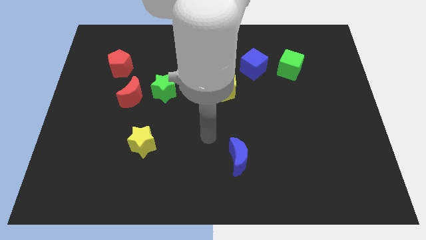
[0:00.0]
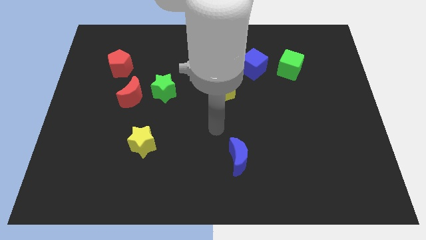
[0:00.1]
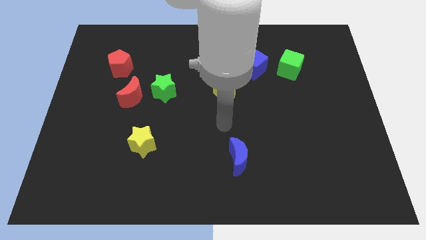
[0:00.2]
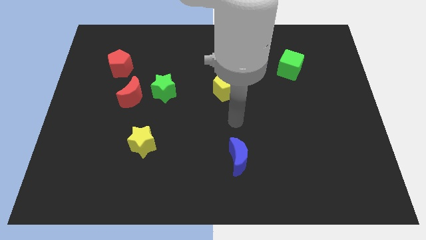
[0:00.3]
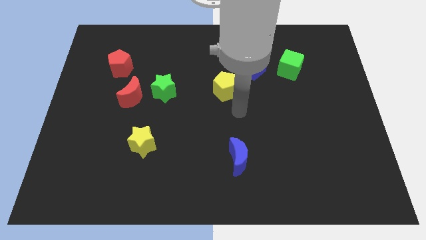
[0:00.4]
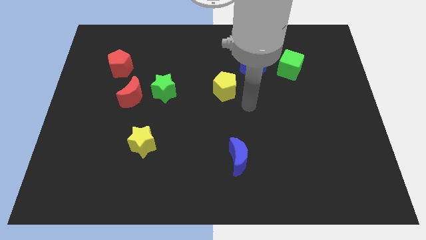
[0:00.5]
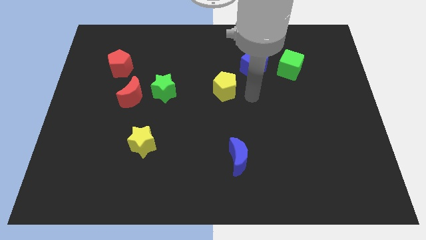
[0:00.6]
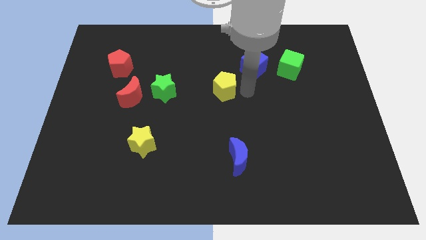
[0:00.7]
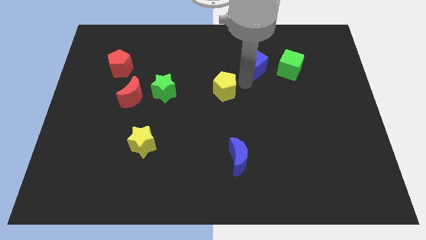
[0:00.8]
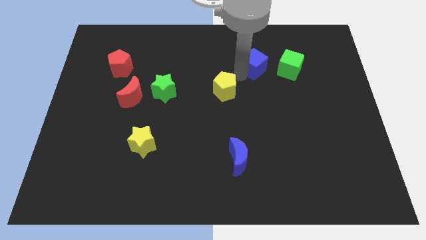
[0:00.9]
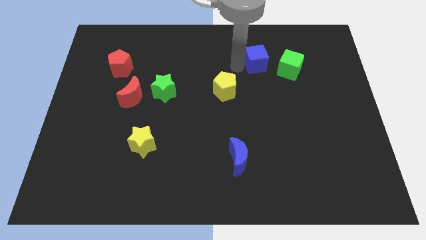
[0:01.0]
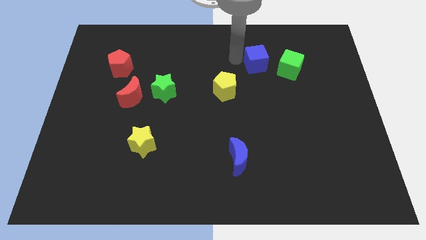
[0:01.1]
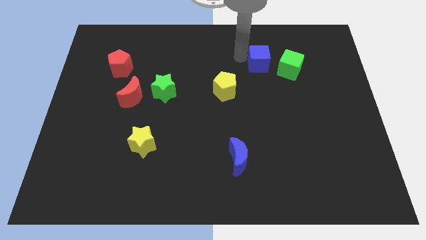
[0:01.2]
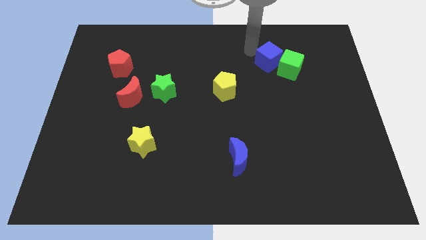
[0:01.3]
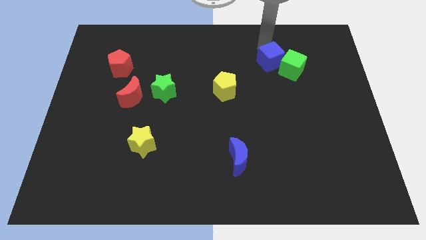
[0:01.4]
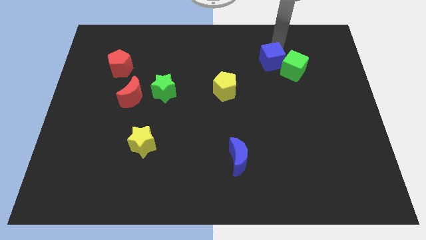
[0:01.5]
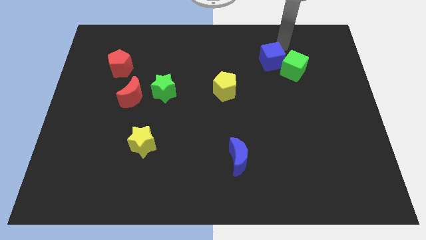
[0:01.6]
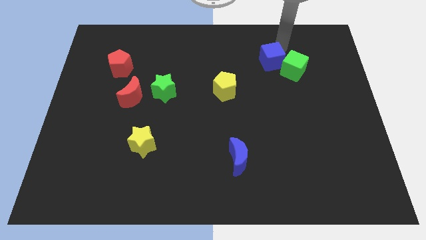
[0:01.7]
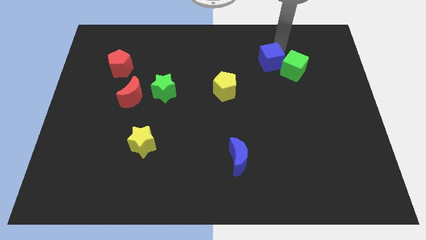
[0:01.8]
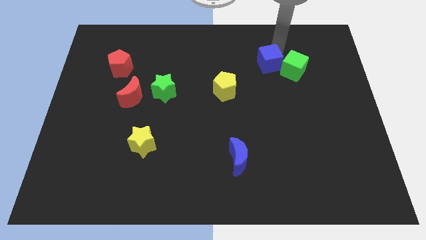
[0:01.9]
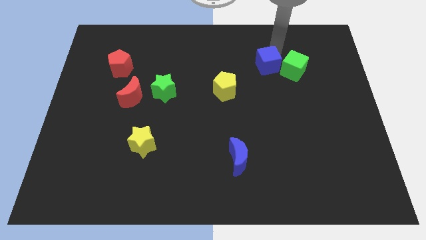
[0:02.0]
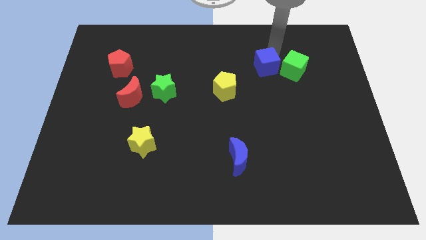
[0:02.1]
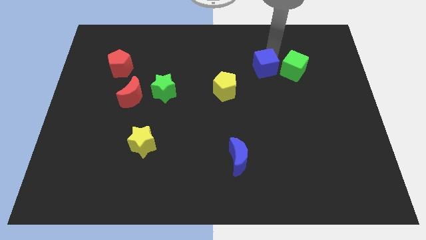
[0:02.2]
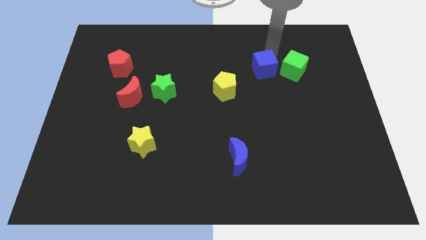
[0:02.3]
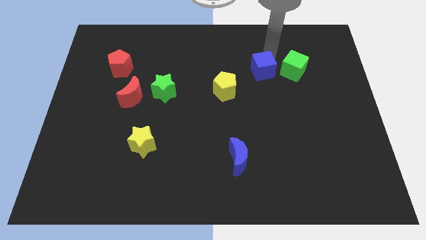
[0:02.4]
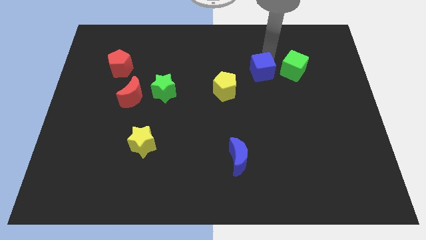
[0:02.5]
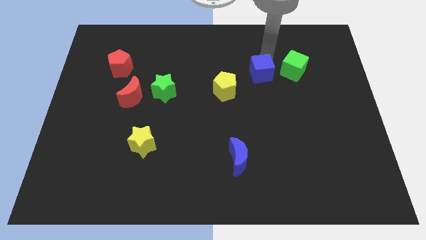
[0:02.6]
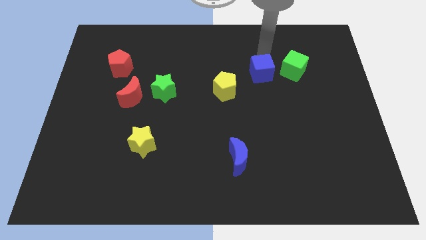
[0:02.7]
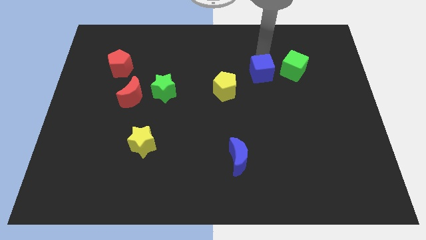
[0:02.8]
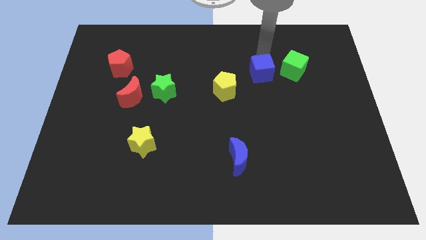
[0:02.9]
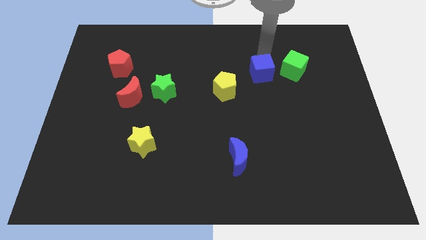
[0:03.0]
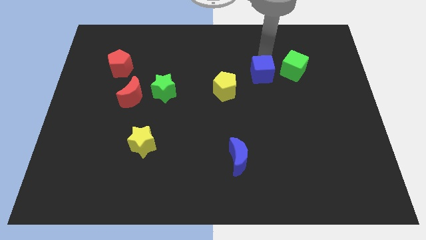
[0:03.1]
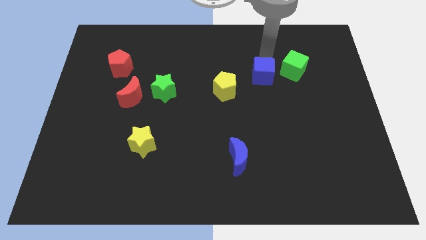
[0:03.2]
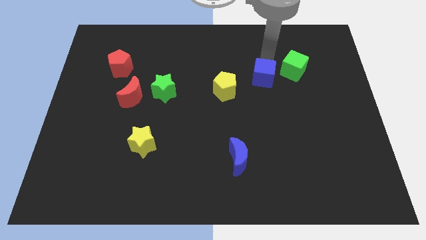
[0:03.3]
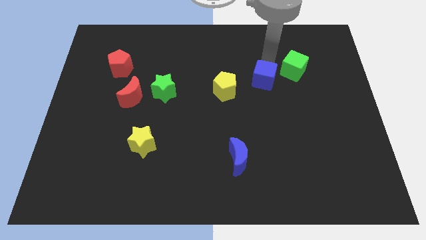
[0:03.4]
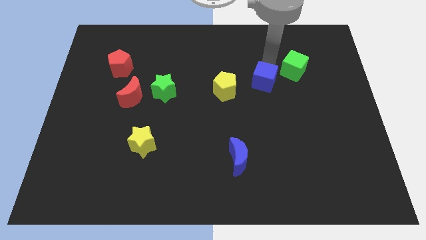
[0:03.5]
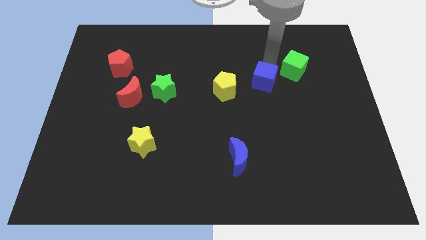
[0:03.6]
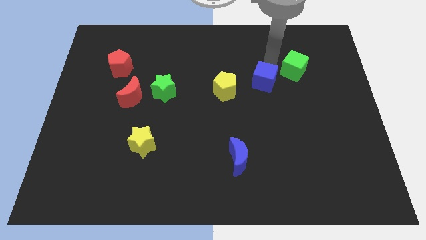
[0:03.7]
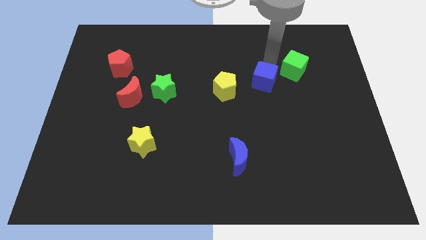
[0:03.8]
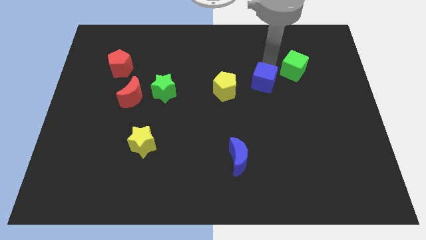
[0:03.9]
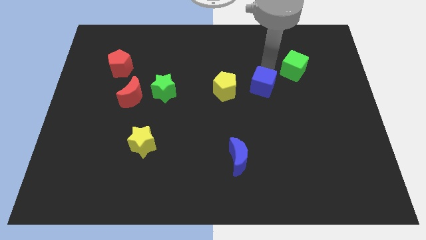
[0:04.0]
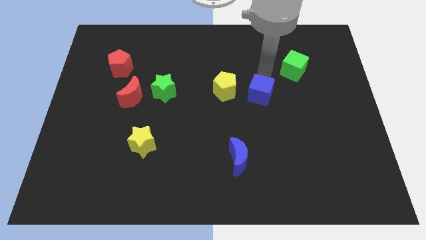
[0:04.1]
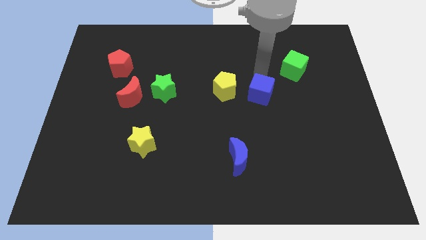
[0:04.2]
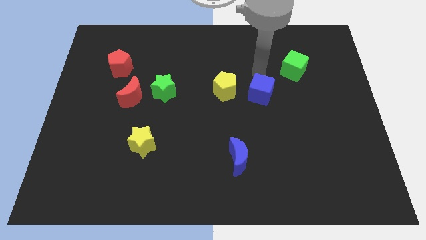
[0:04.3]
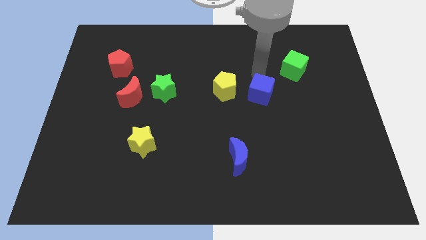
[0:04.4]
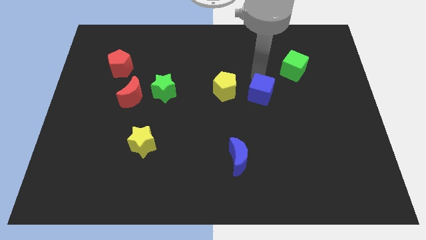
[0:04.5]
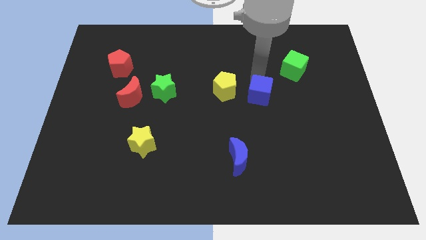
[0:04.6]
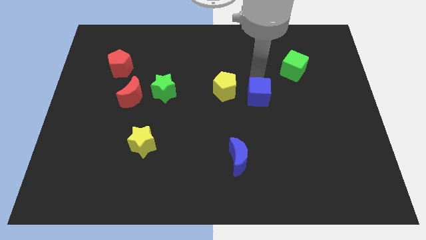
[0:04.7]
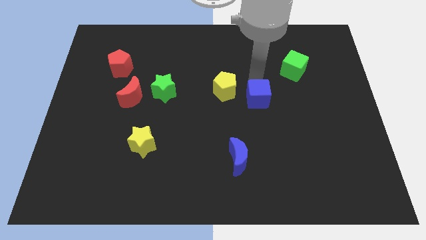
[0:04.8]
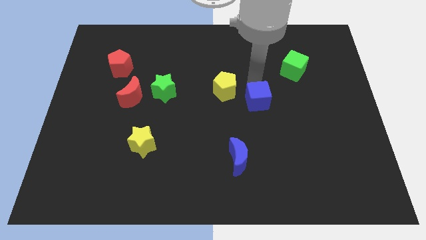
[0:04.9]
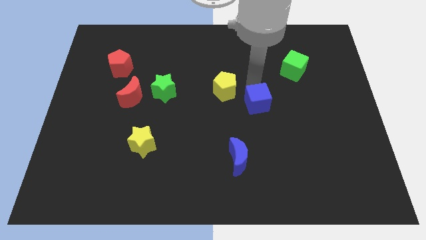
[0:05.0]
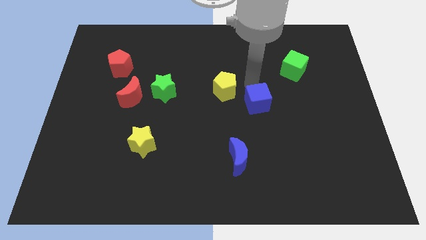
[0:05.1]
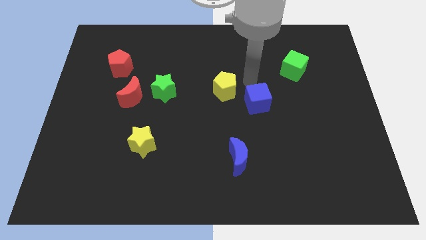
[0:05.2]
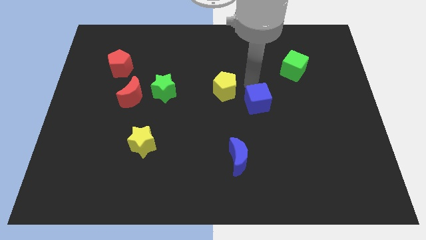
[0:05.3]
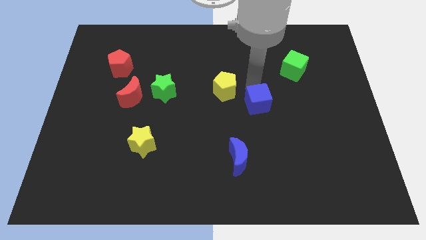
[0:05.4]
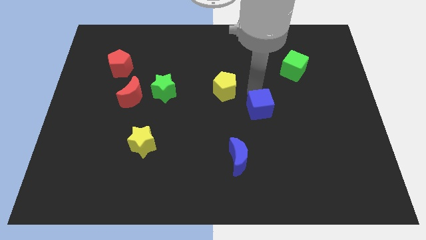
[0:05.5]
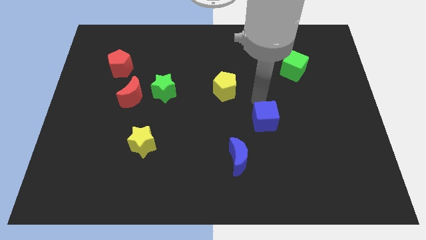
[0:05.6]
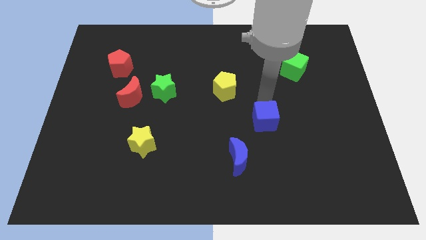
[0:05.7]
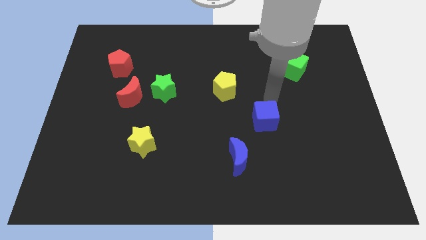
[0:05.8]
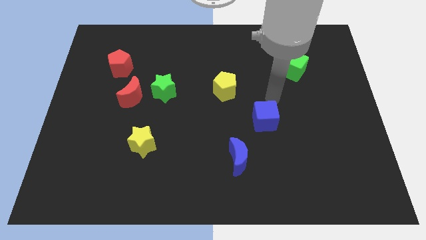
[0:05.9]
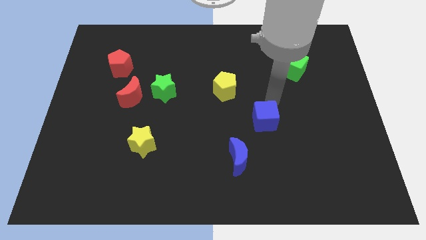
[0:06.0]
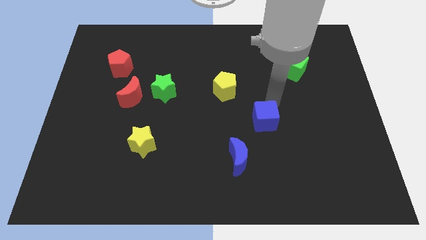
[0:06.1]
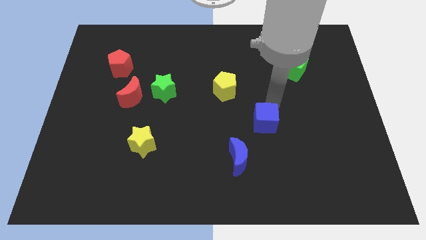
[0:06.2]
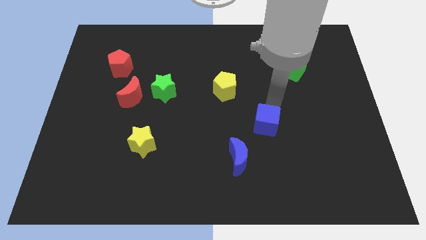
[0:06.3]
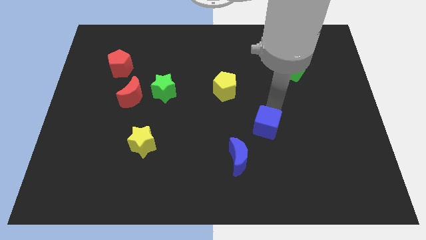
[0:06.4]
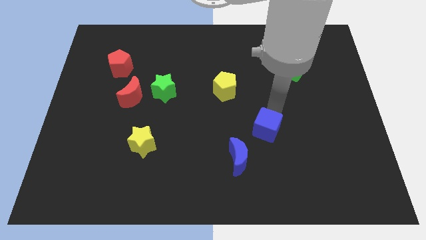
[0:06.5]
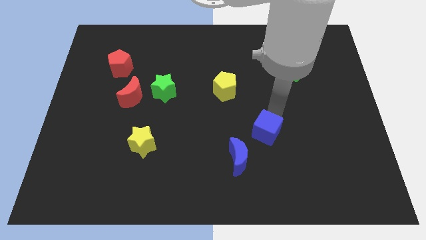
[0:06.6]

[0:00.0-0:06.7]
push the blue cube down

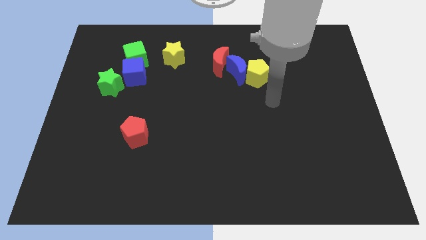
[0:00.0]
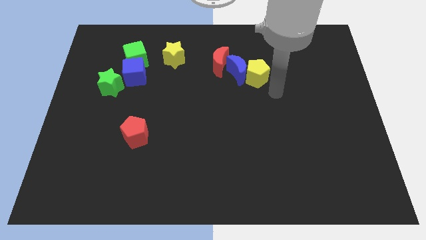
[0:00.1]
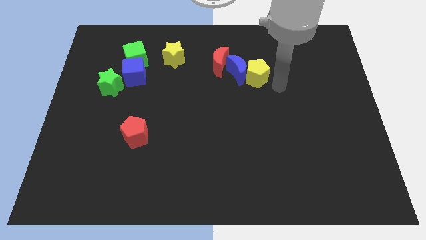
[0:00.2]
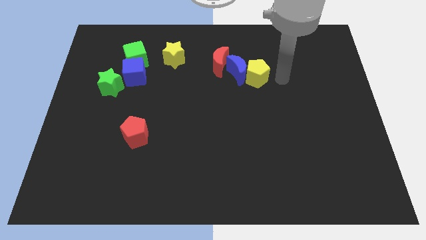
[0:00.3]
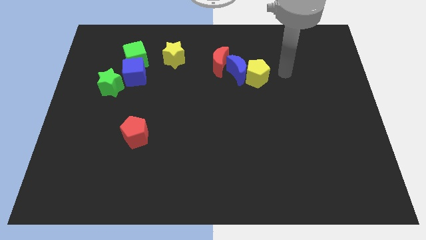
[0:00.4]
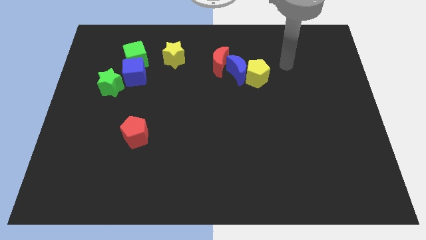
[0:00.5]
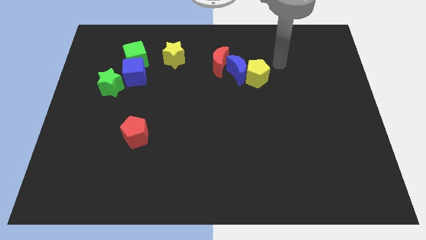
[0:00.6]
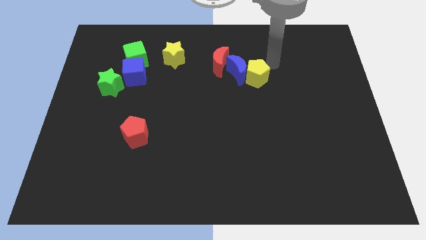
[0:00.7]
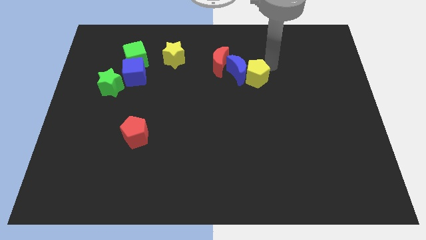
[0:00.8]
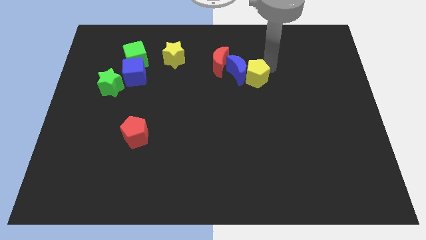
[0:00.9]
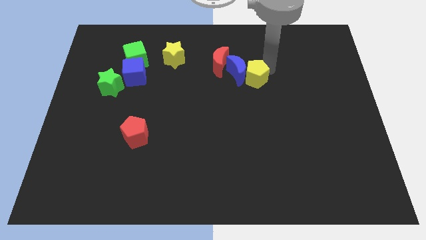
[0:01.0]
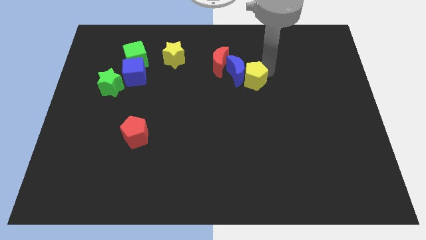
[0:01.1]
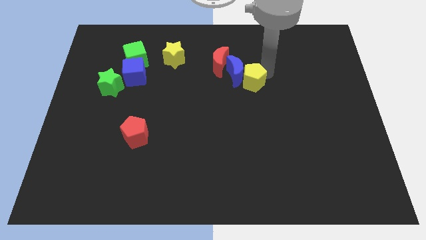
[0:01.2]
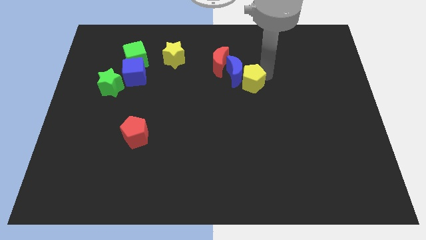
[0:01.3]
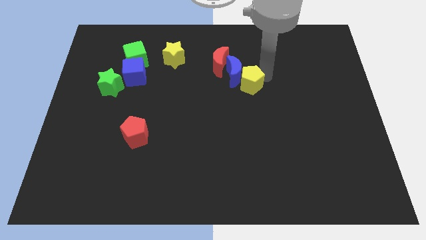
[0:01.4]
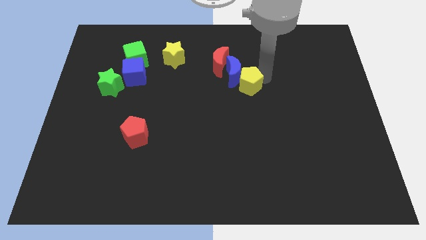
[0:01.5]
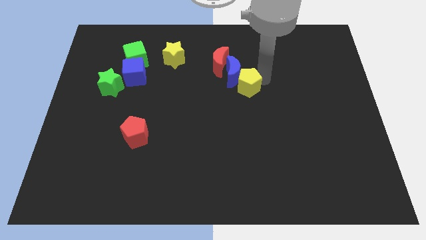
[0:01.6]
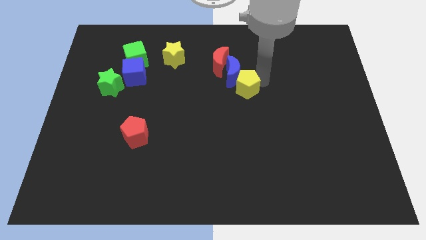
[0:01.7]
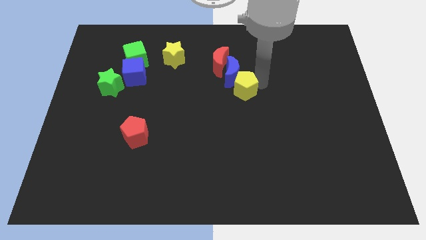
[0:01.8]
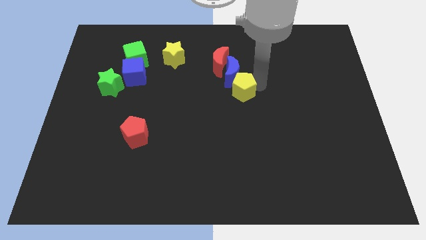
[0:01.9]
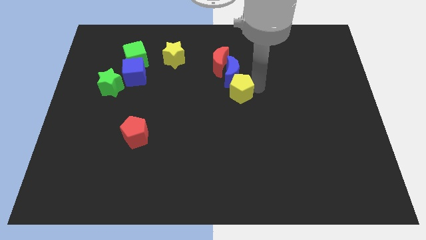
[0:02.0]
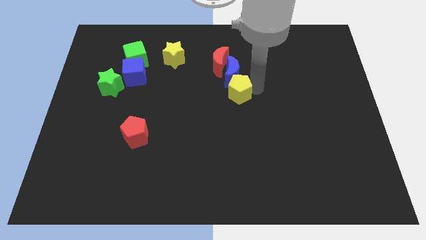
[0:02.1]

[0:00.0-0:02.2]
push the yellow pentagon down and then to the left somewhat
